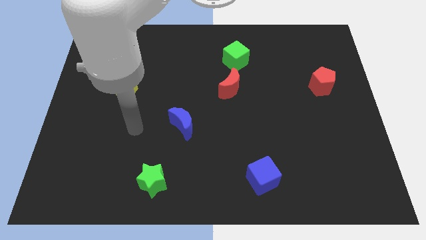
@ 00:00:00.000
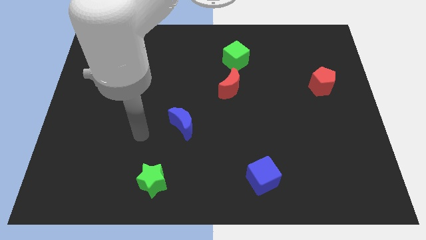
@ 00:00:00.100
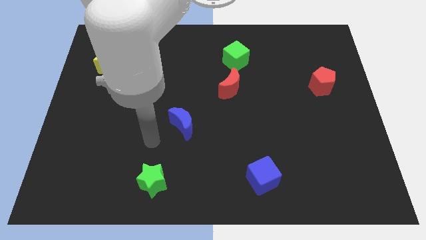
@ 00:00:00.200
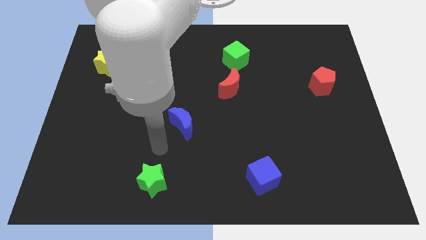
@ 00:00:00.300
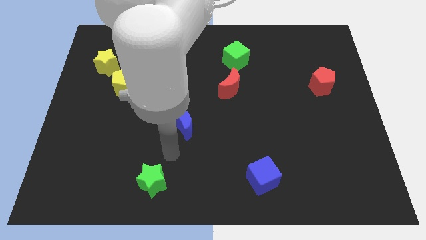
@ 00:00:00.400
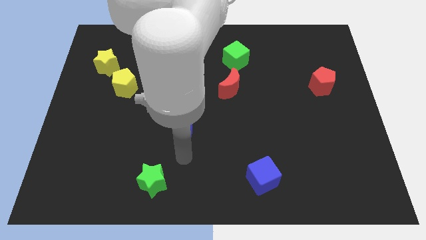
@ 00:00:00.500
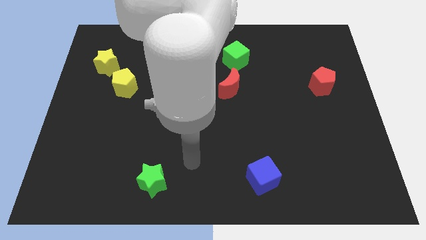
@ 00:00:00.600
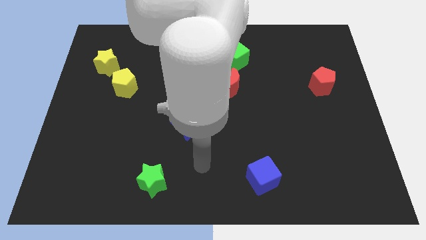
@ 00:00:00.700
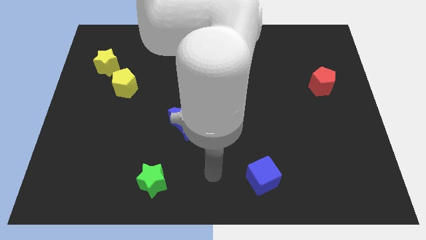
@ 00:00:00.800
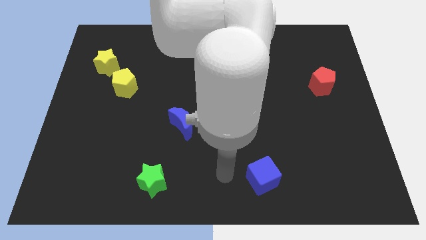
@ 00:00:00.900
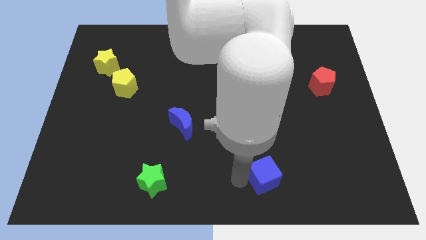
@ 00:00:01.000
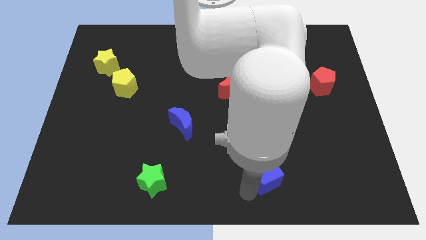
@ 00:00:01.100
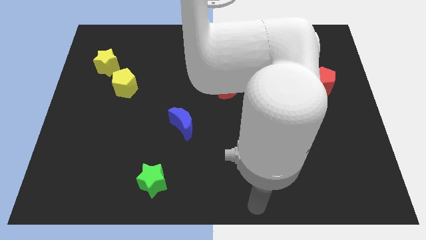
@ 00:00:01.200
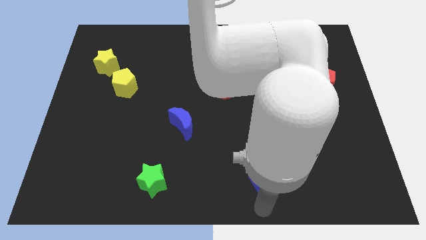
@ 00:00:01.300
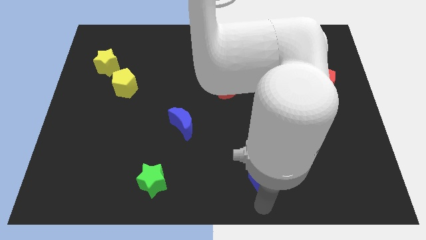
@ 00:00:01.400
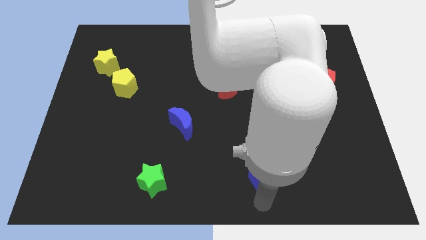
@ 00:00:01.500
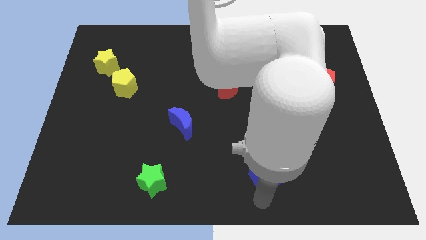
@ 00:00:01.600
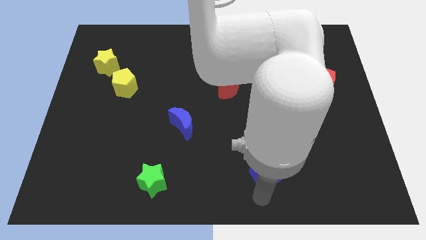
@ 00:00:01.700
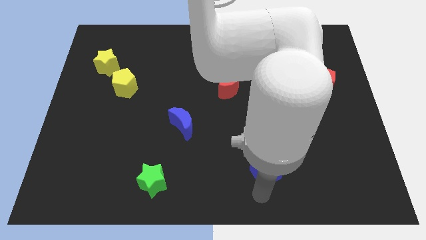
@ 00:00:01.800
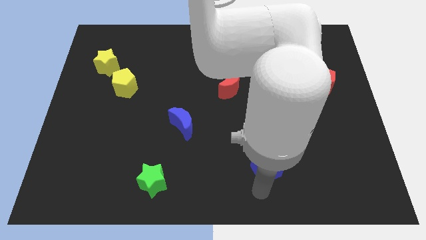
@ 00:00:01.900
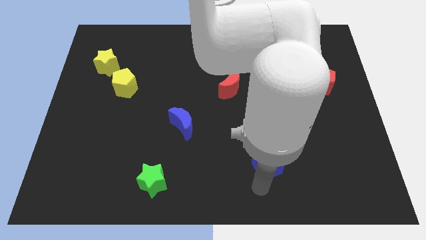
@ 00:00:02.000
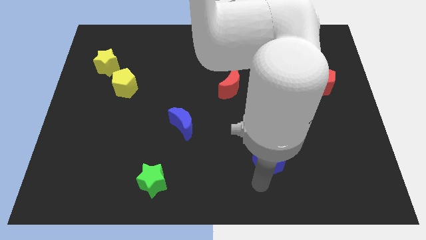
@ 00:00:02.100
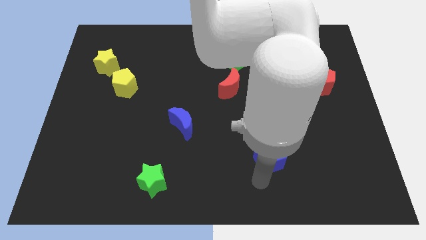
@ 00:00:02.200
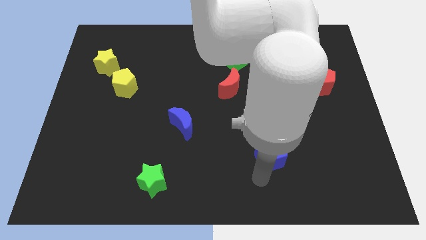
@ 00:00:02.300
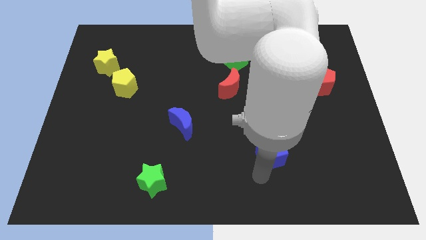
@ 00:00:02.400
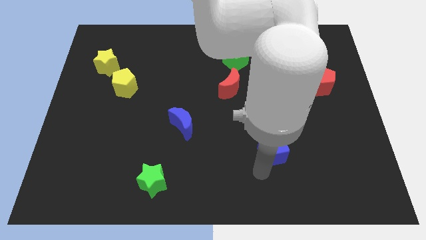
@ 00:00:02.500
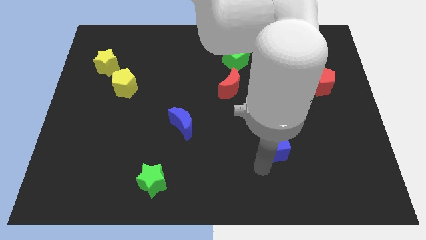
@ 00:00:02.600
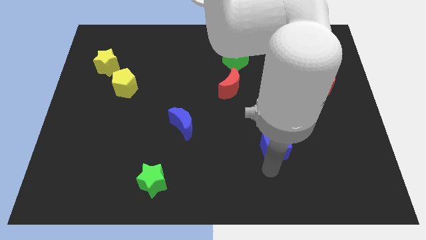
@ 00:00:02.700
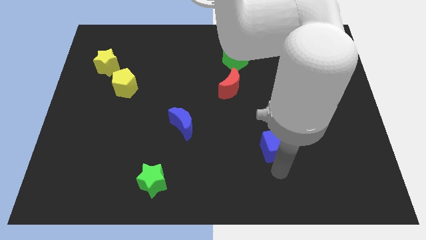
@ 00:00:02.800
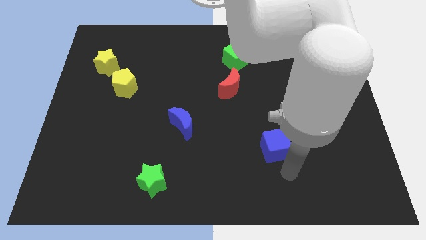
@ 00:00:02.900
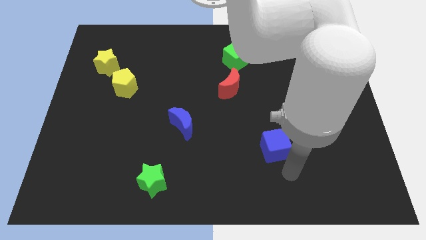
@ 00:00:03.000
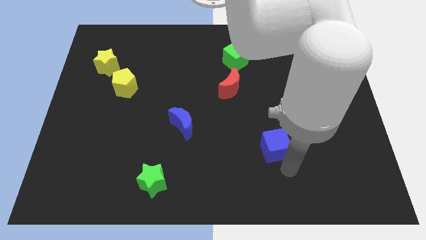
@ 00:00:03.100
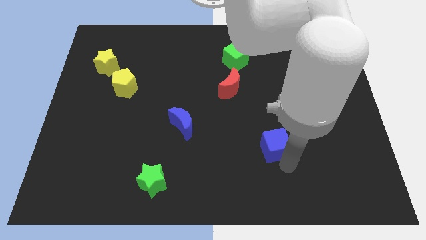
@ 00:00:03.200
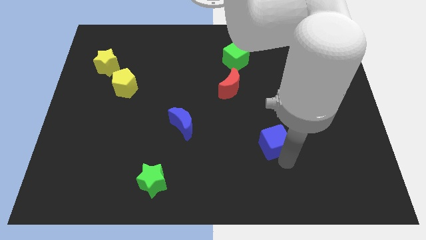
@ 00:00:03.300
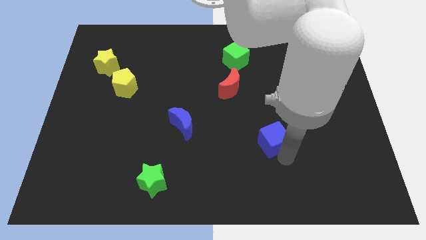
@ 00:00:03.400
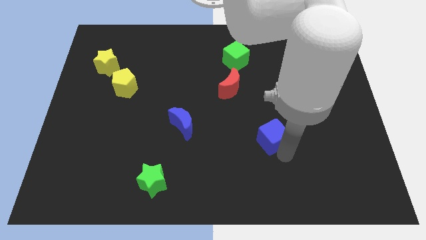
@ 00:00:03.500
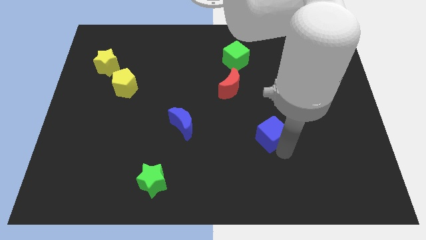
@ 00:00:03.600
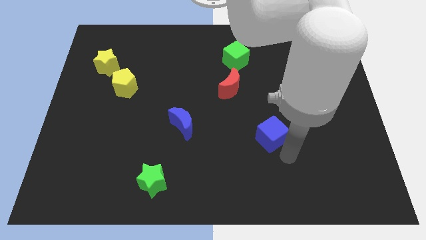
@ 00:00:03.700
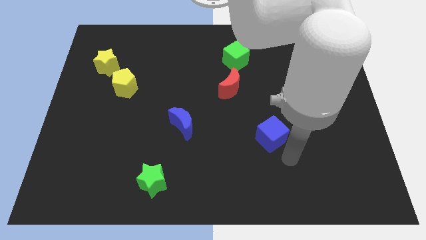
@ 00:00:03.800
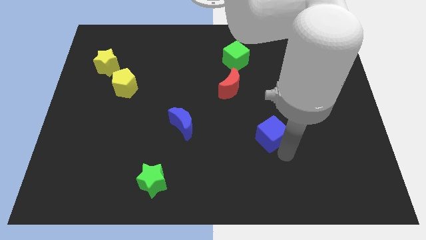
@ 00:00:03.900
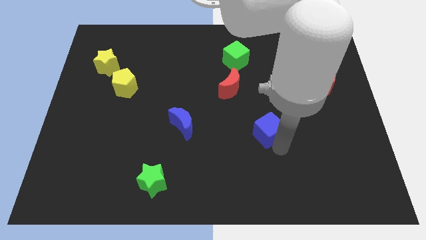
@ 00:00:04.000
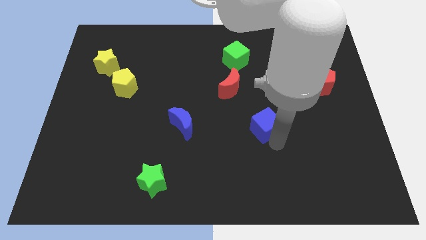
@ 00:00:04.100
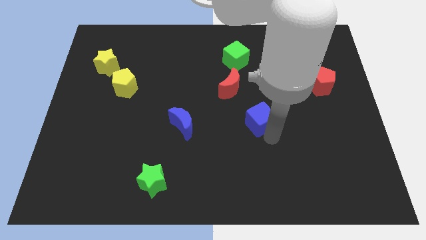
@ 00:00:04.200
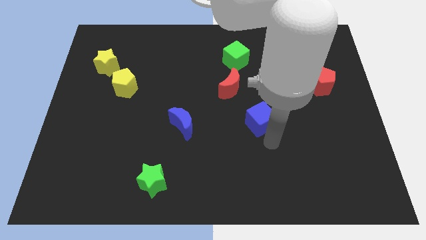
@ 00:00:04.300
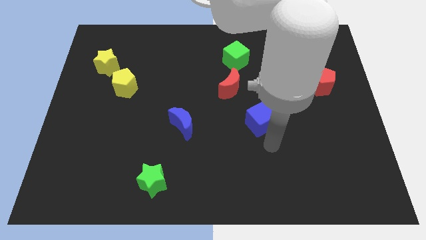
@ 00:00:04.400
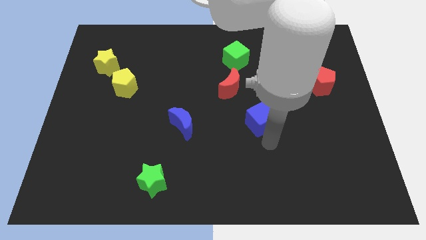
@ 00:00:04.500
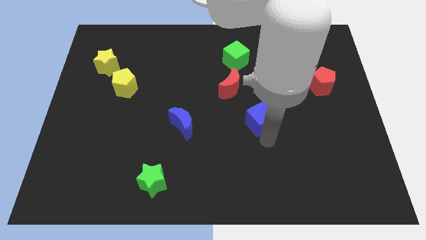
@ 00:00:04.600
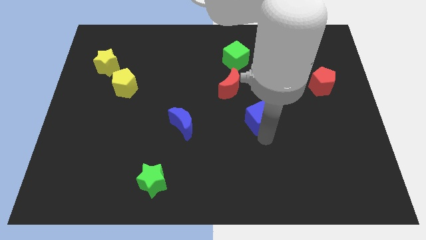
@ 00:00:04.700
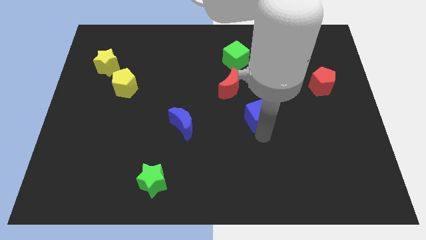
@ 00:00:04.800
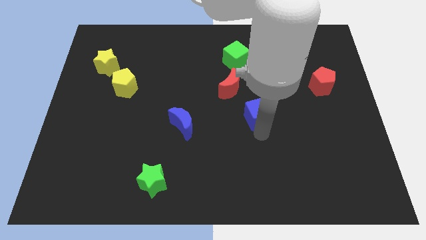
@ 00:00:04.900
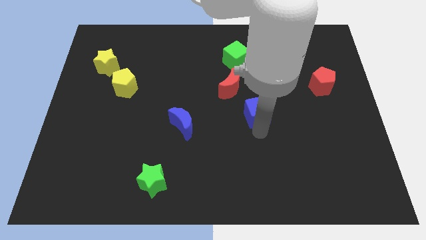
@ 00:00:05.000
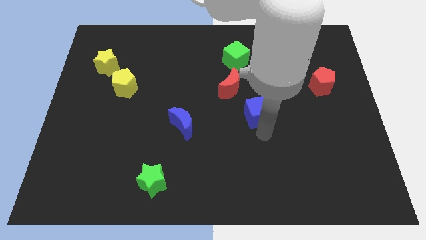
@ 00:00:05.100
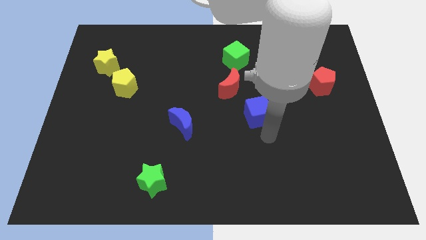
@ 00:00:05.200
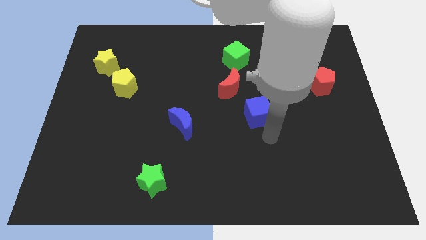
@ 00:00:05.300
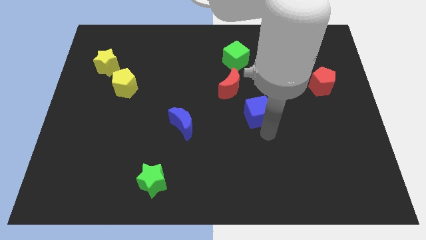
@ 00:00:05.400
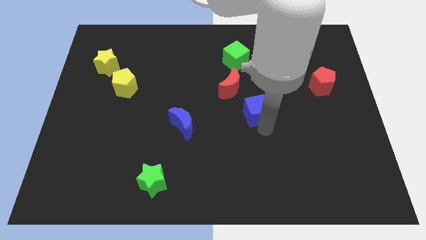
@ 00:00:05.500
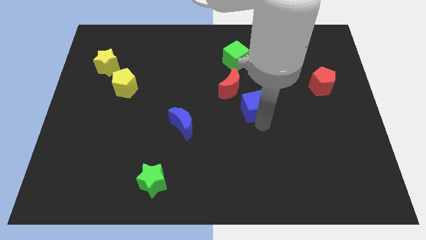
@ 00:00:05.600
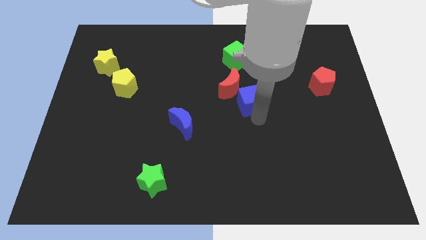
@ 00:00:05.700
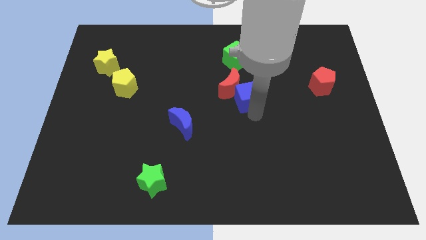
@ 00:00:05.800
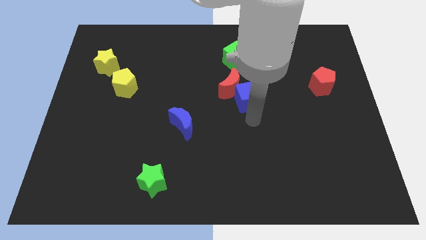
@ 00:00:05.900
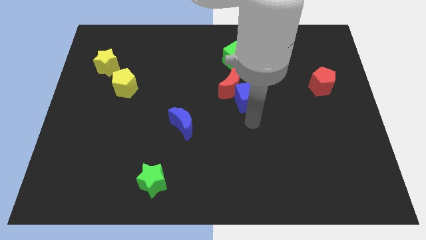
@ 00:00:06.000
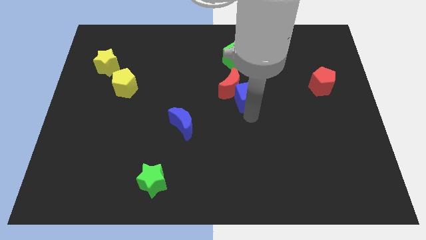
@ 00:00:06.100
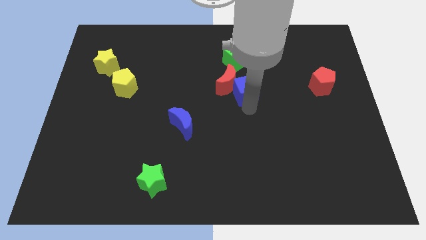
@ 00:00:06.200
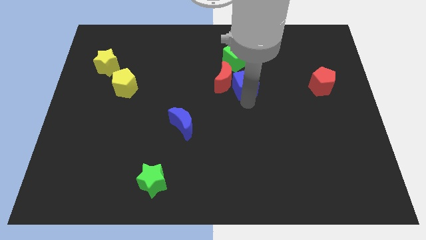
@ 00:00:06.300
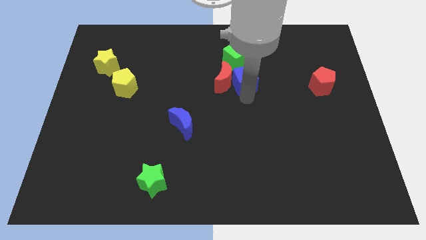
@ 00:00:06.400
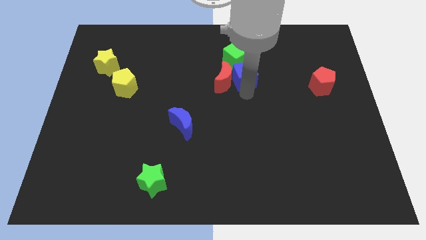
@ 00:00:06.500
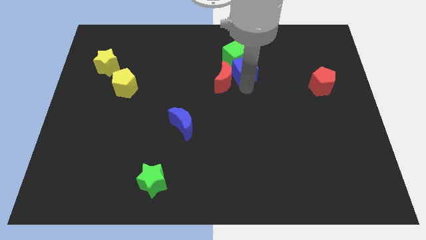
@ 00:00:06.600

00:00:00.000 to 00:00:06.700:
slide the blue cube next to the green cube

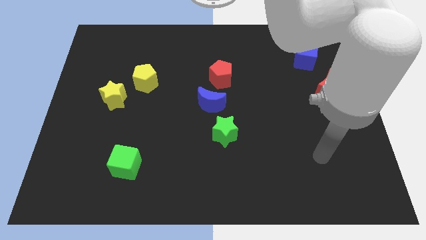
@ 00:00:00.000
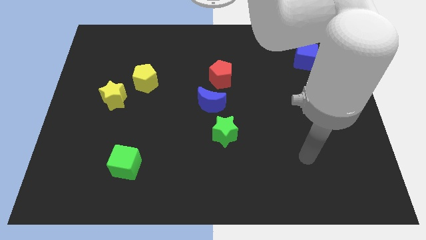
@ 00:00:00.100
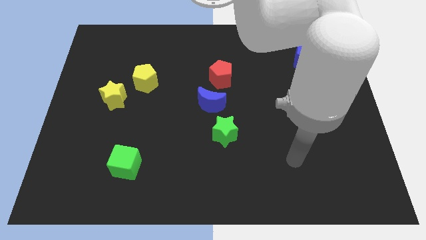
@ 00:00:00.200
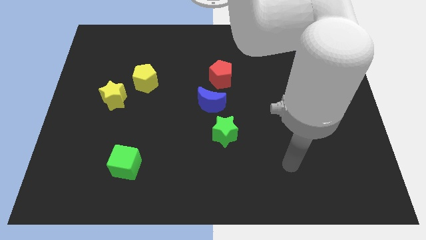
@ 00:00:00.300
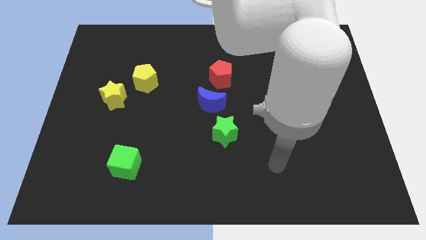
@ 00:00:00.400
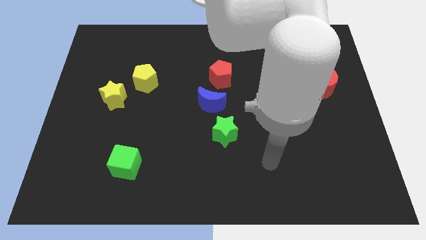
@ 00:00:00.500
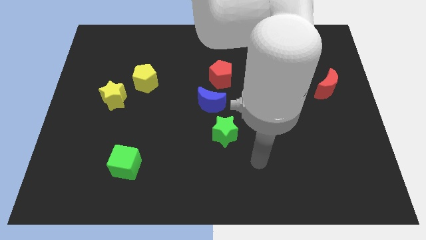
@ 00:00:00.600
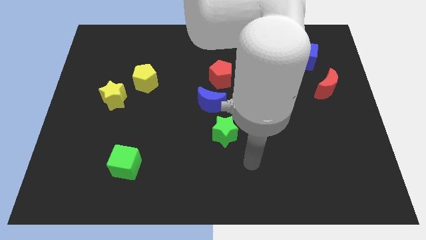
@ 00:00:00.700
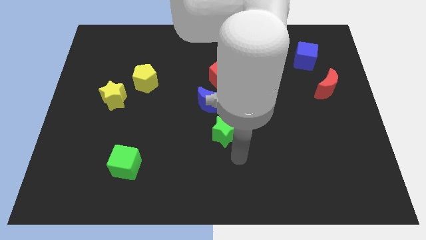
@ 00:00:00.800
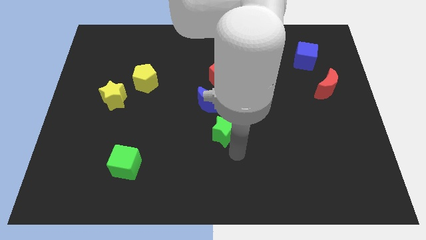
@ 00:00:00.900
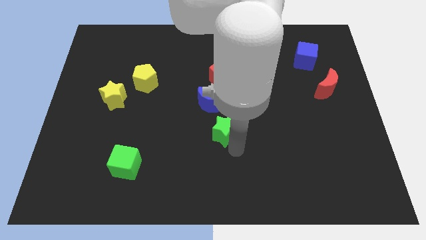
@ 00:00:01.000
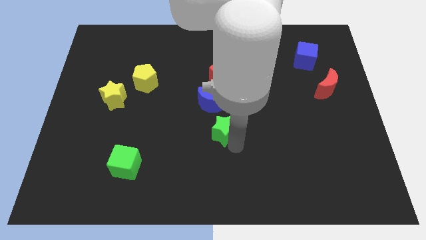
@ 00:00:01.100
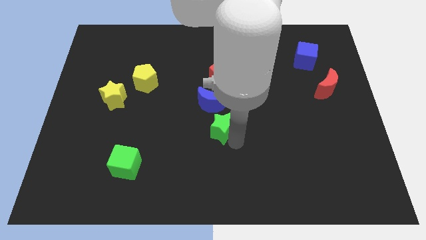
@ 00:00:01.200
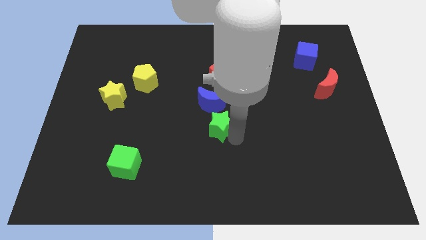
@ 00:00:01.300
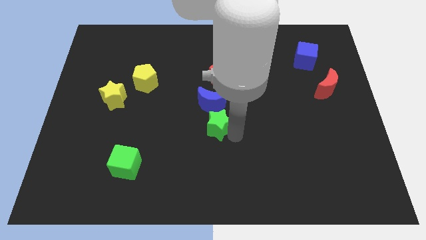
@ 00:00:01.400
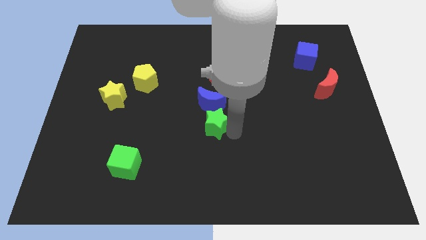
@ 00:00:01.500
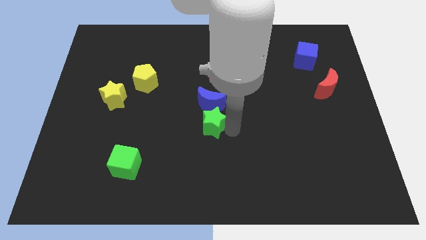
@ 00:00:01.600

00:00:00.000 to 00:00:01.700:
push the green star next to the blue moon
